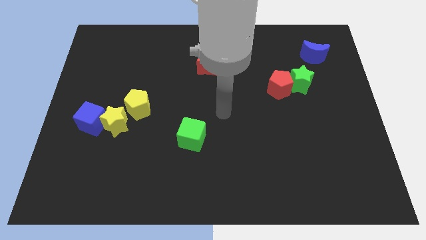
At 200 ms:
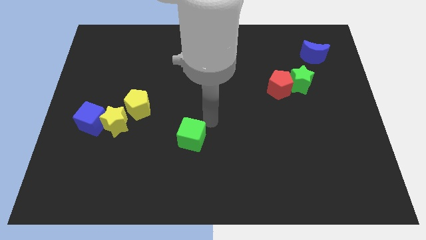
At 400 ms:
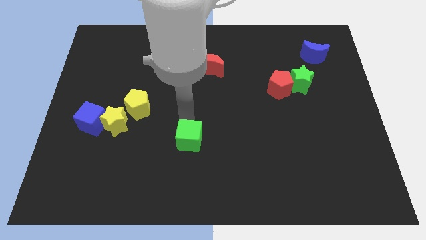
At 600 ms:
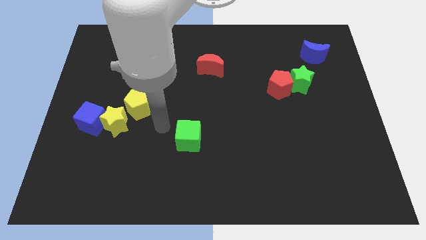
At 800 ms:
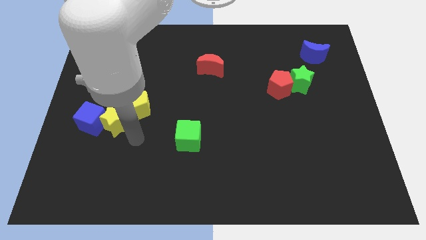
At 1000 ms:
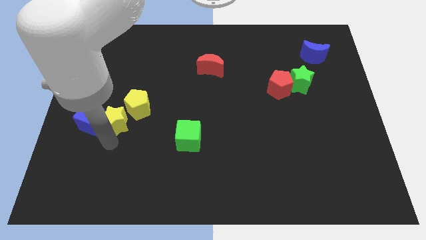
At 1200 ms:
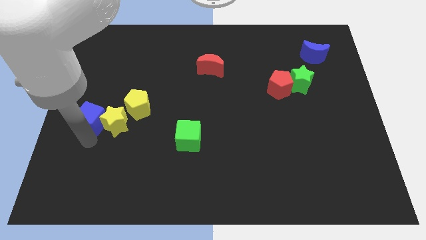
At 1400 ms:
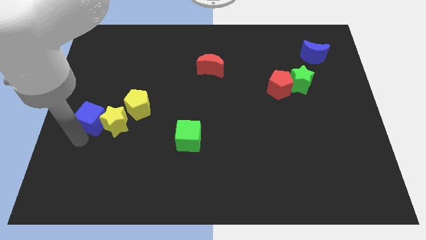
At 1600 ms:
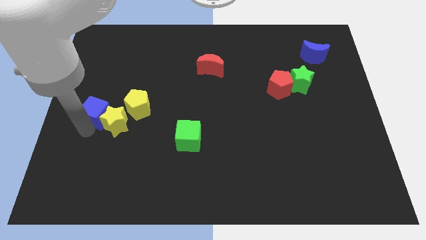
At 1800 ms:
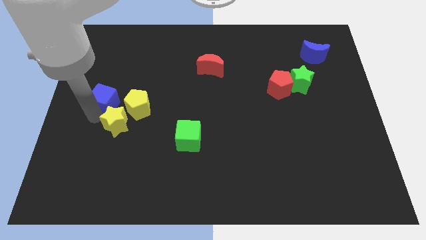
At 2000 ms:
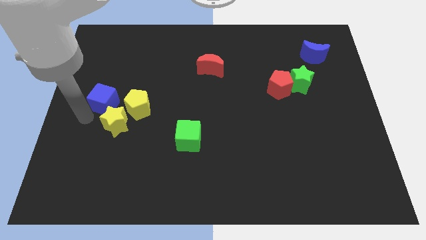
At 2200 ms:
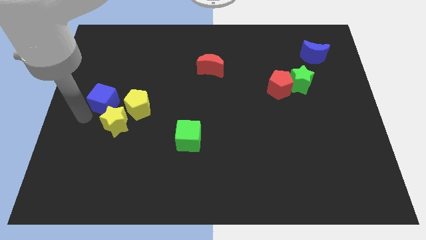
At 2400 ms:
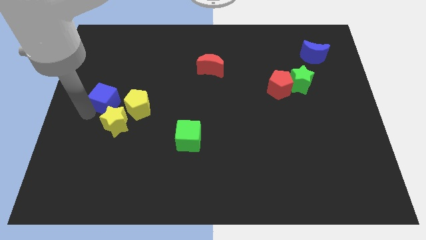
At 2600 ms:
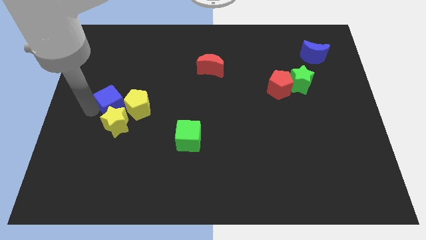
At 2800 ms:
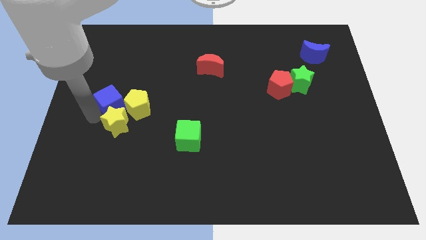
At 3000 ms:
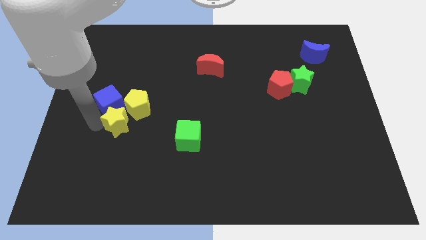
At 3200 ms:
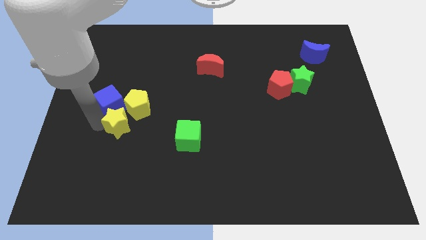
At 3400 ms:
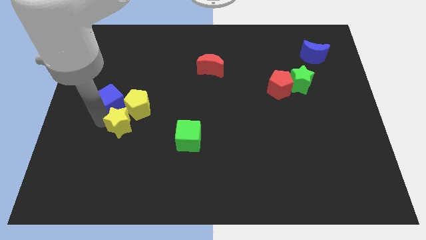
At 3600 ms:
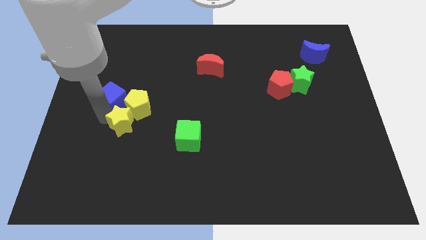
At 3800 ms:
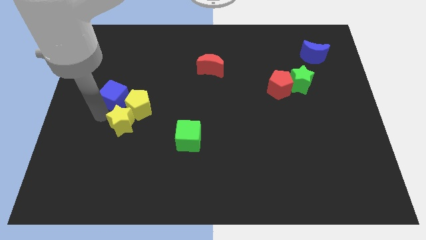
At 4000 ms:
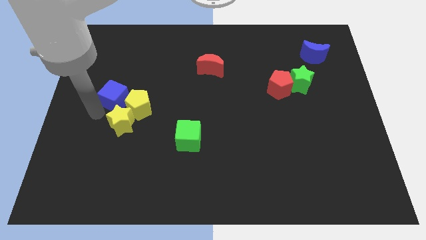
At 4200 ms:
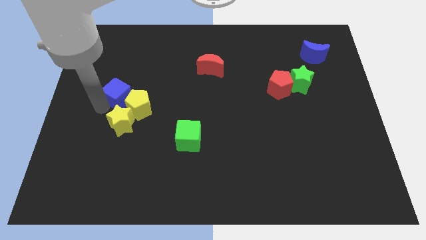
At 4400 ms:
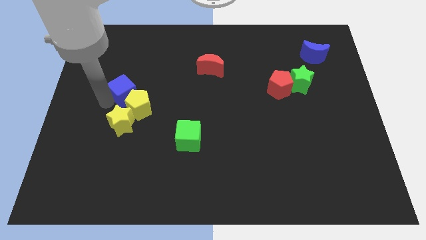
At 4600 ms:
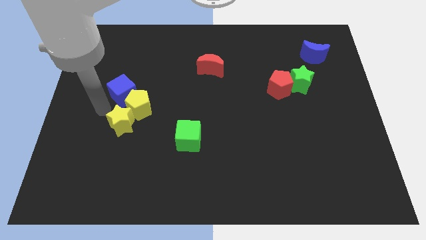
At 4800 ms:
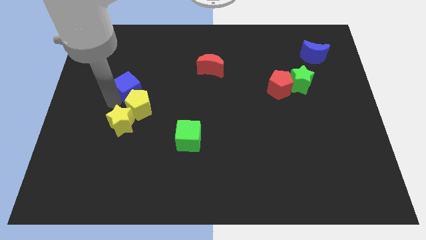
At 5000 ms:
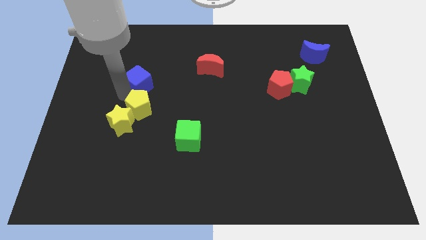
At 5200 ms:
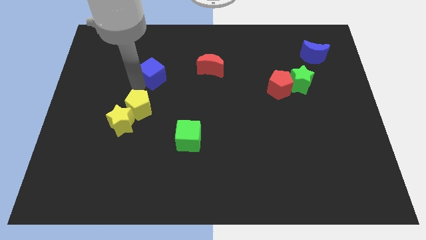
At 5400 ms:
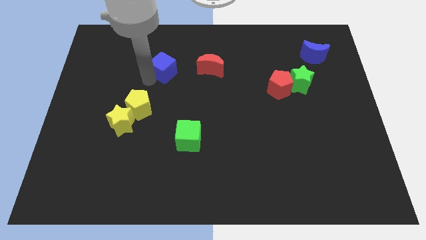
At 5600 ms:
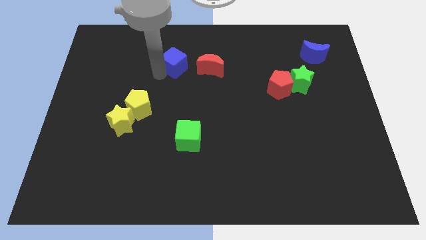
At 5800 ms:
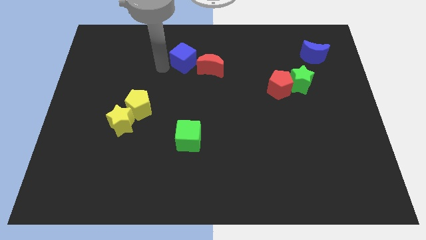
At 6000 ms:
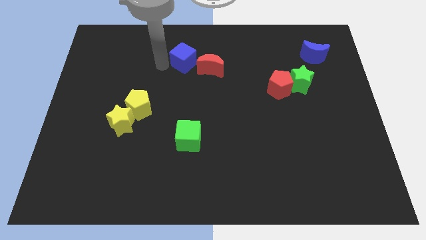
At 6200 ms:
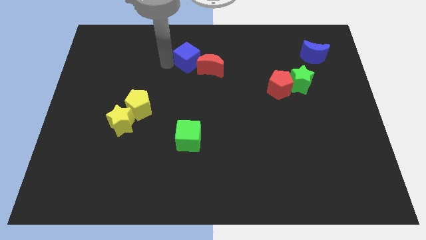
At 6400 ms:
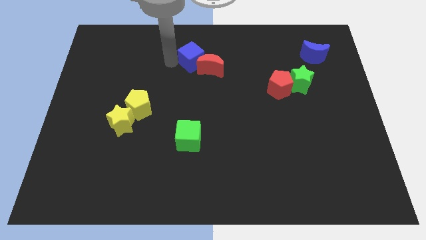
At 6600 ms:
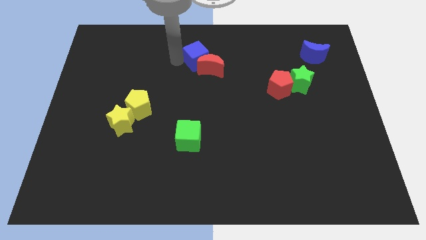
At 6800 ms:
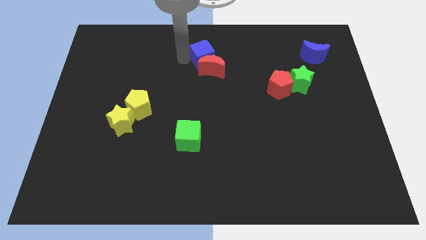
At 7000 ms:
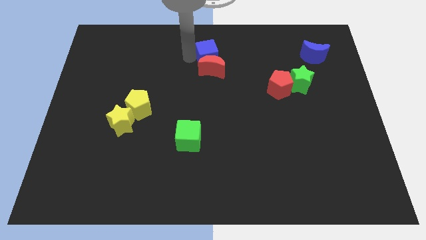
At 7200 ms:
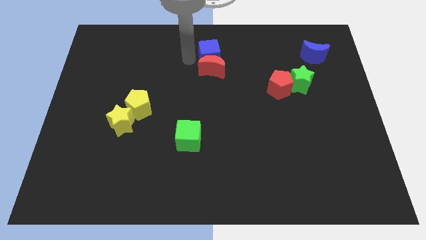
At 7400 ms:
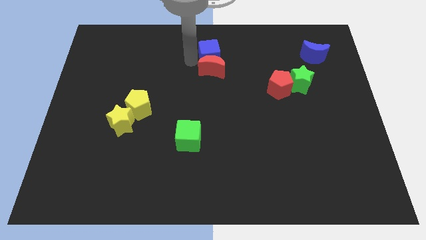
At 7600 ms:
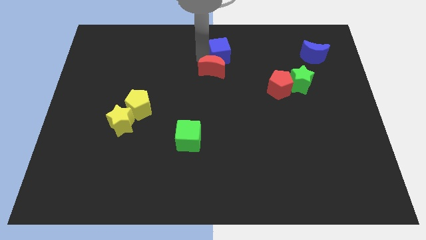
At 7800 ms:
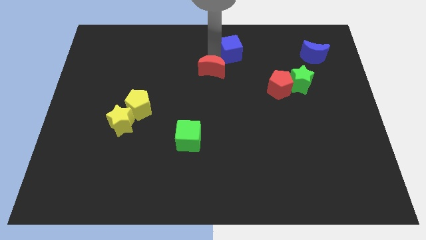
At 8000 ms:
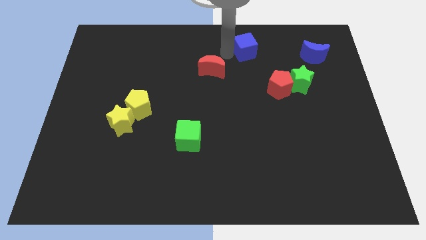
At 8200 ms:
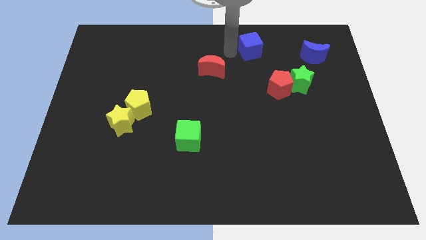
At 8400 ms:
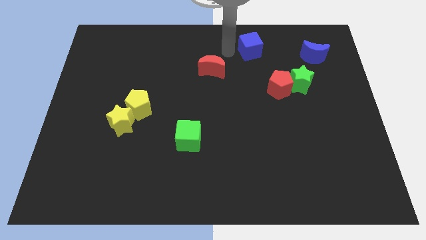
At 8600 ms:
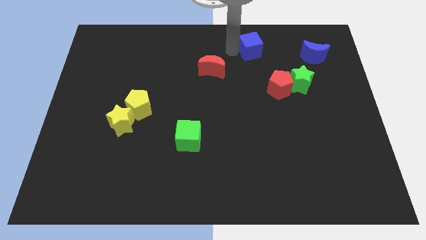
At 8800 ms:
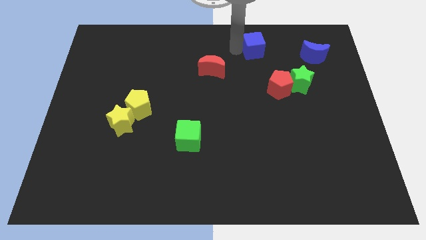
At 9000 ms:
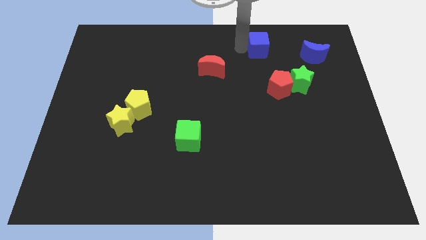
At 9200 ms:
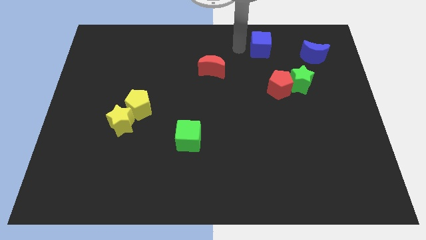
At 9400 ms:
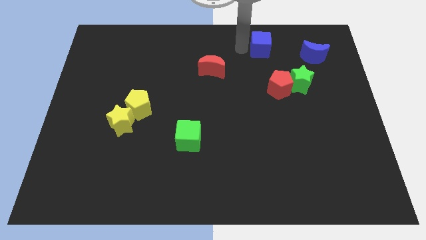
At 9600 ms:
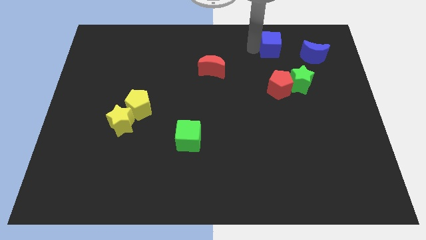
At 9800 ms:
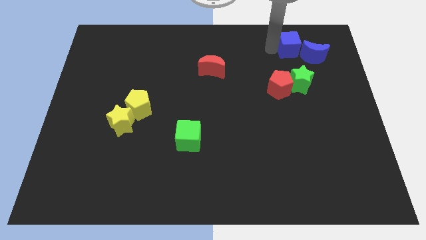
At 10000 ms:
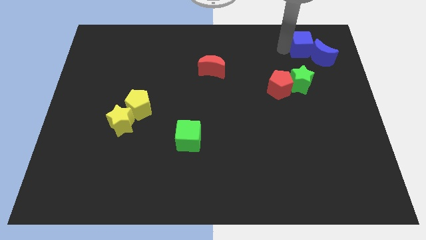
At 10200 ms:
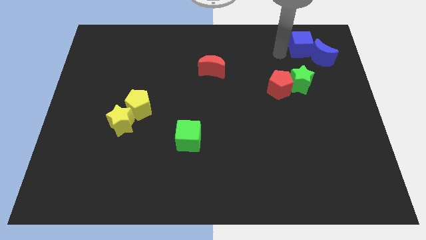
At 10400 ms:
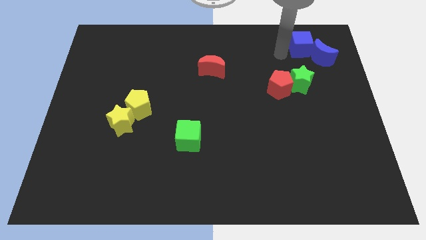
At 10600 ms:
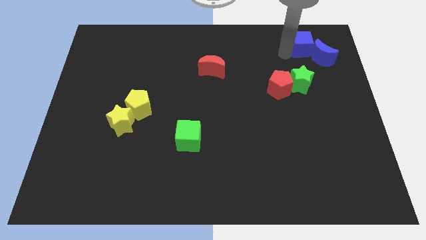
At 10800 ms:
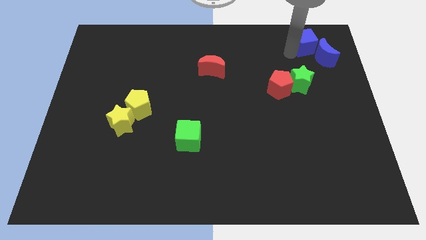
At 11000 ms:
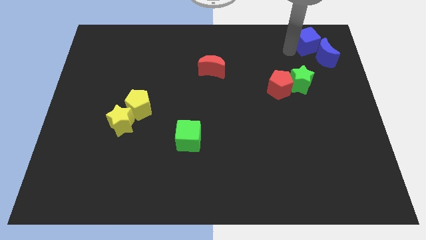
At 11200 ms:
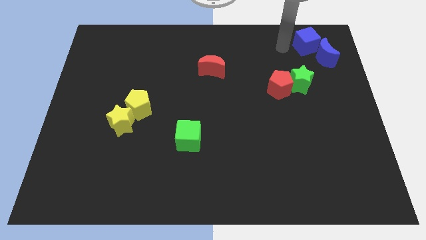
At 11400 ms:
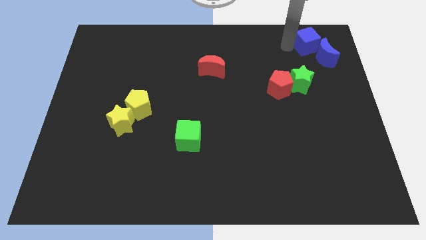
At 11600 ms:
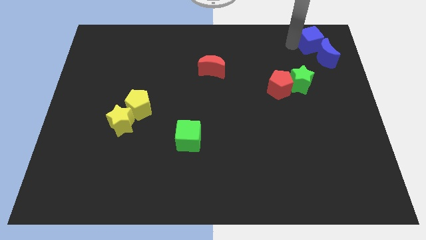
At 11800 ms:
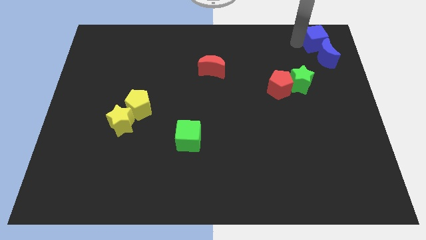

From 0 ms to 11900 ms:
slide the blue cube to the top right corner

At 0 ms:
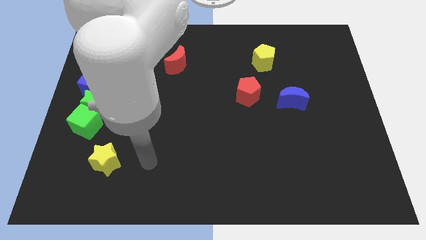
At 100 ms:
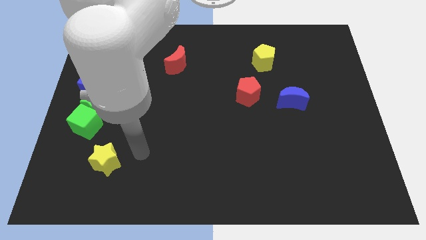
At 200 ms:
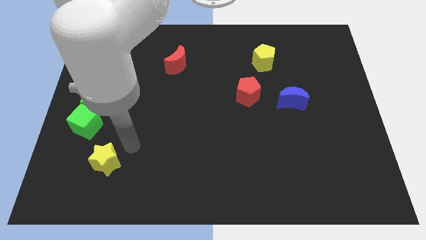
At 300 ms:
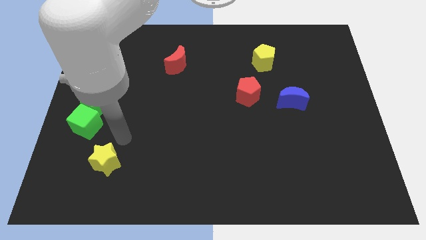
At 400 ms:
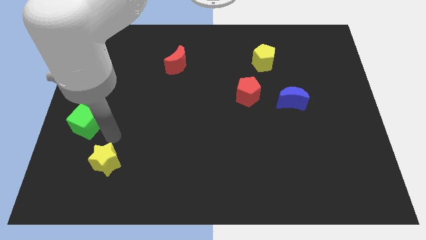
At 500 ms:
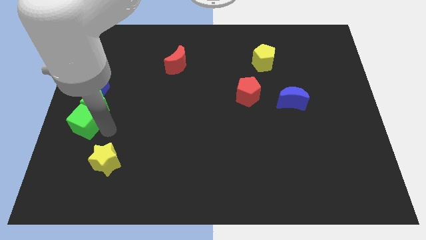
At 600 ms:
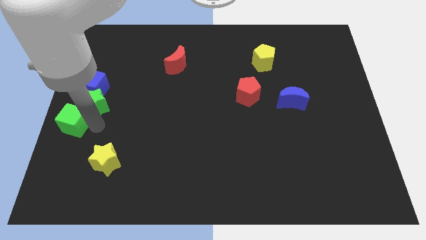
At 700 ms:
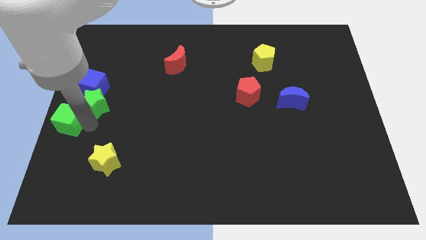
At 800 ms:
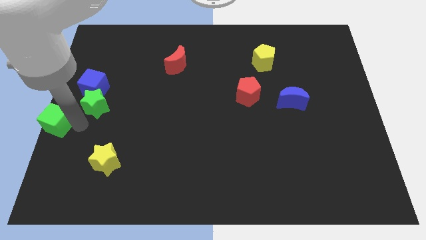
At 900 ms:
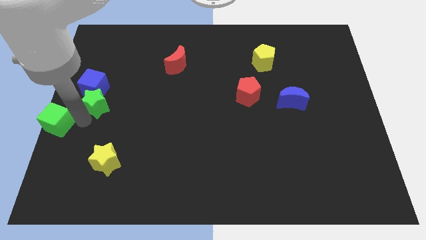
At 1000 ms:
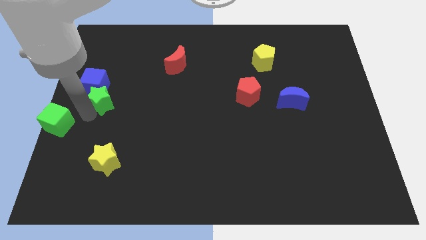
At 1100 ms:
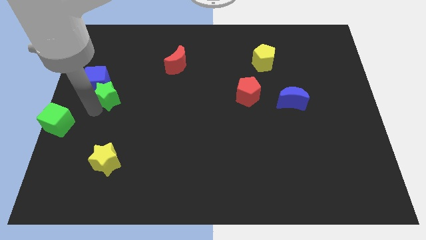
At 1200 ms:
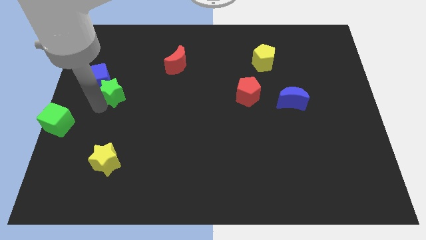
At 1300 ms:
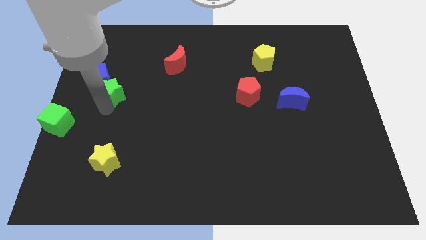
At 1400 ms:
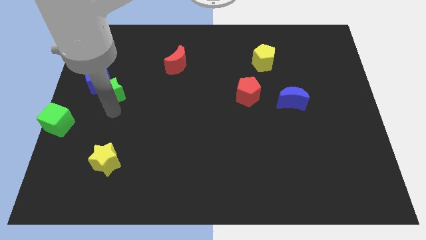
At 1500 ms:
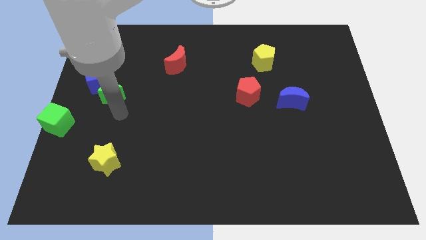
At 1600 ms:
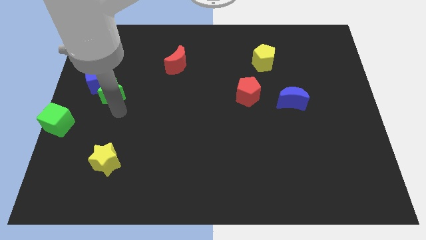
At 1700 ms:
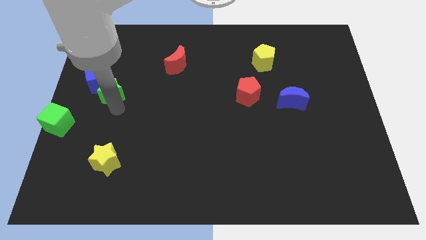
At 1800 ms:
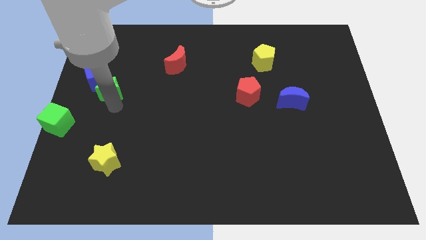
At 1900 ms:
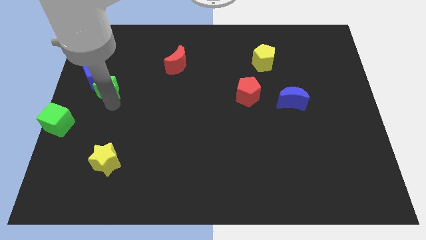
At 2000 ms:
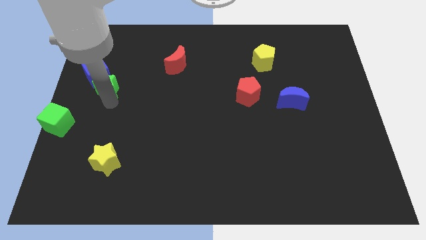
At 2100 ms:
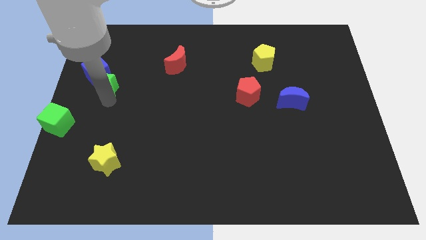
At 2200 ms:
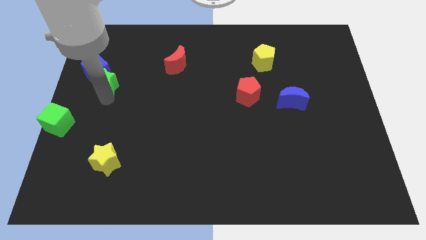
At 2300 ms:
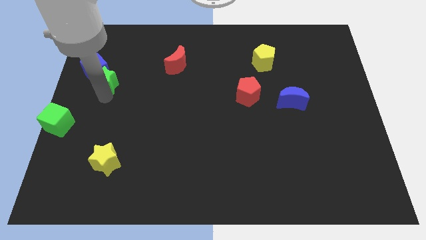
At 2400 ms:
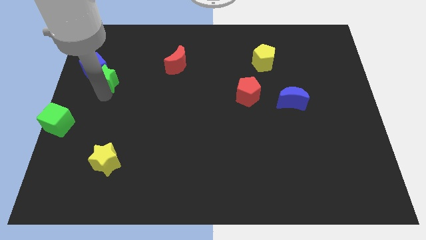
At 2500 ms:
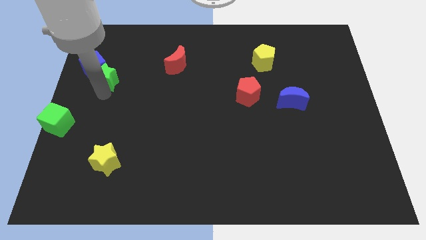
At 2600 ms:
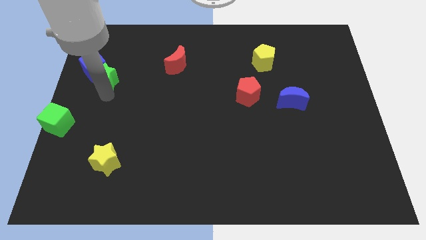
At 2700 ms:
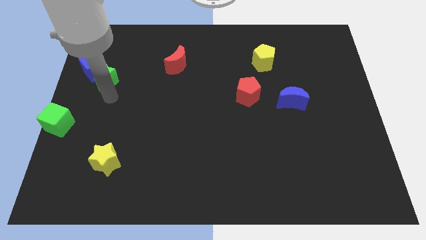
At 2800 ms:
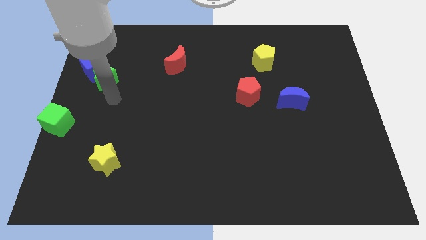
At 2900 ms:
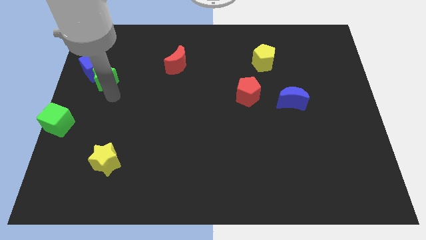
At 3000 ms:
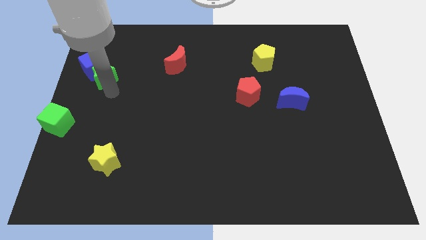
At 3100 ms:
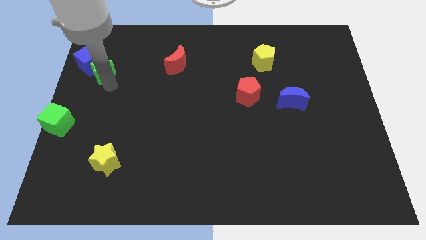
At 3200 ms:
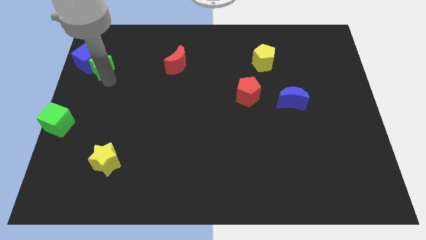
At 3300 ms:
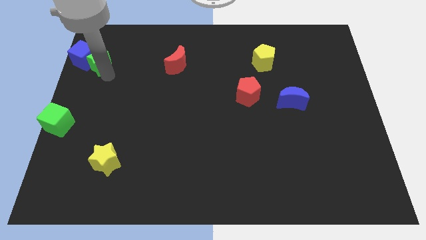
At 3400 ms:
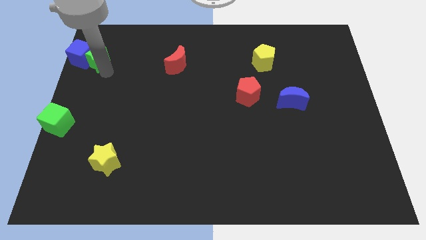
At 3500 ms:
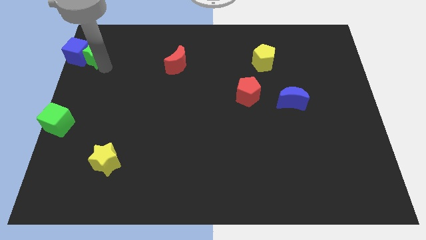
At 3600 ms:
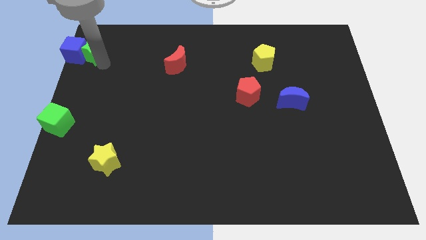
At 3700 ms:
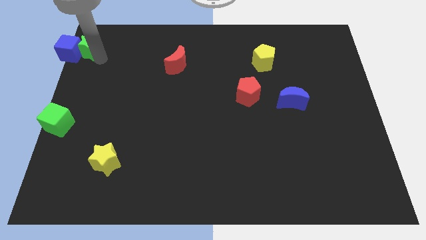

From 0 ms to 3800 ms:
push the green star to the top left
